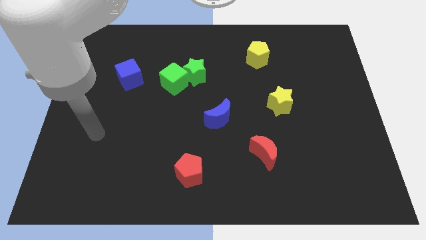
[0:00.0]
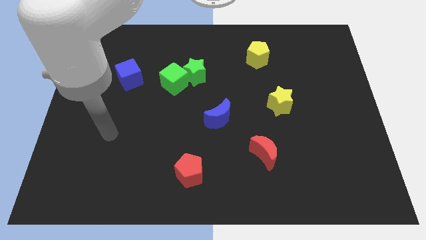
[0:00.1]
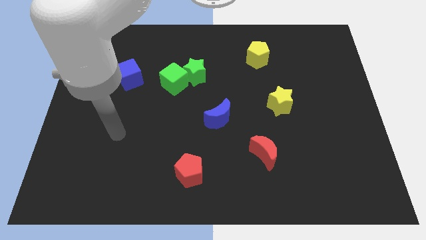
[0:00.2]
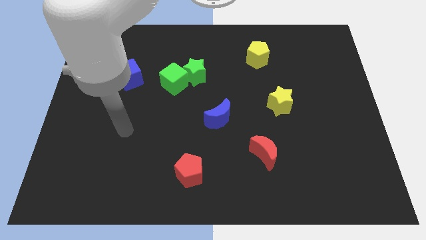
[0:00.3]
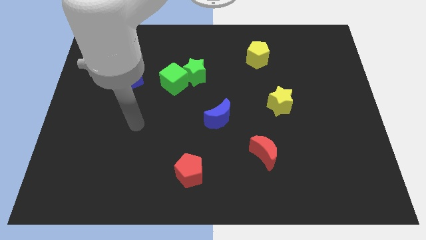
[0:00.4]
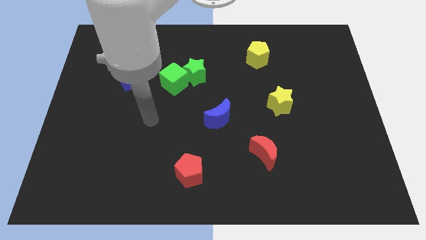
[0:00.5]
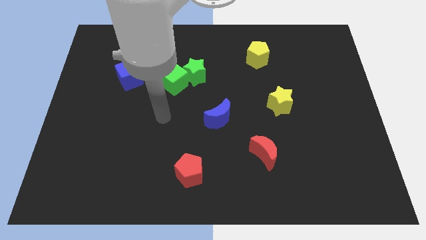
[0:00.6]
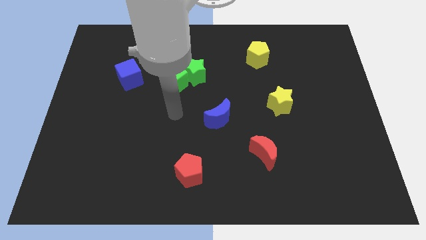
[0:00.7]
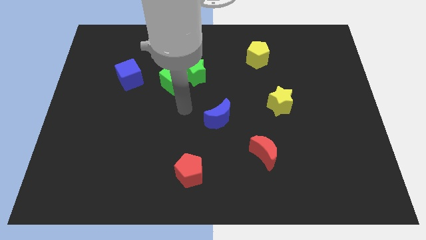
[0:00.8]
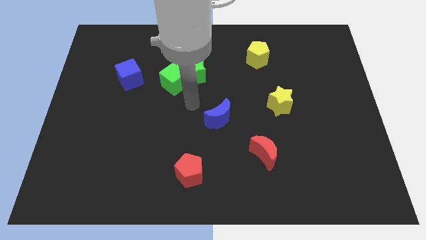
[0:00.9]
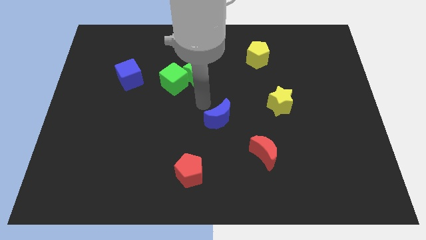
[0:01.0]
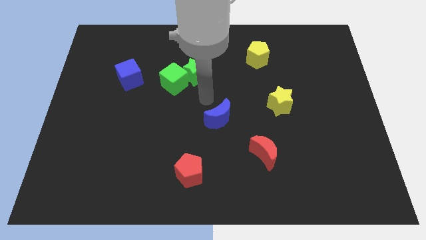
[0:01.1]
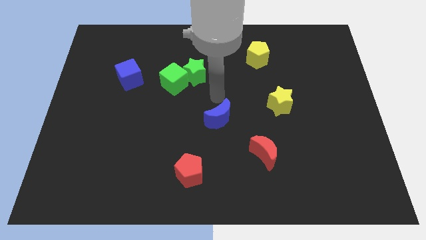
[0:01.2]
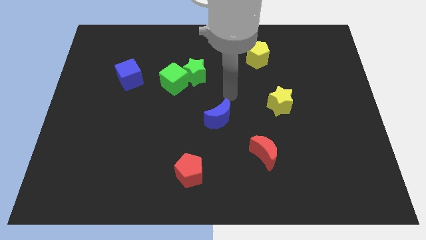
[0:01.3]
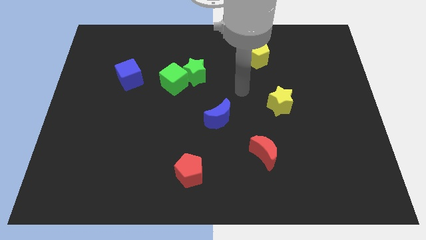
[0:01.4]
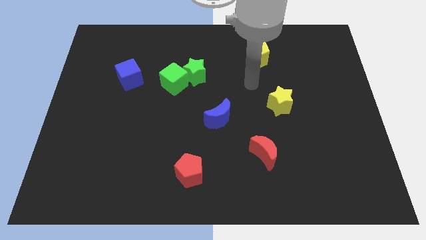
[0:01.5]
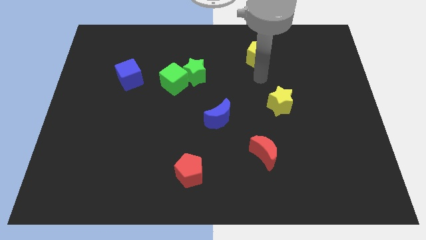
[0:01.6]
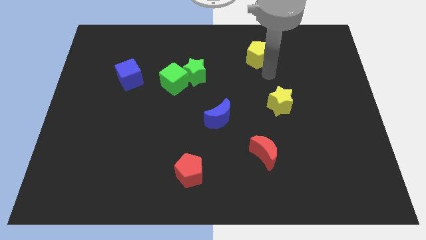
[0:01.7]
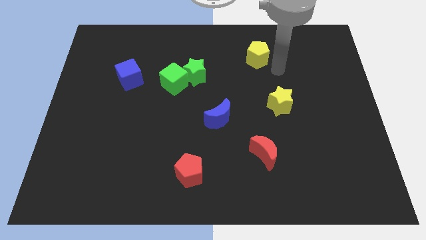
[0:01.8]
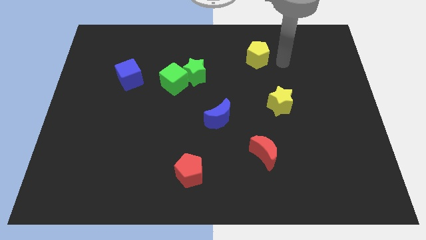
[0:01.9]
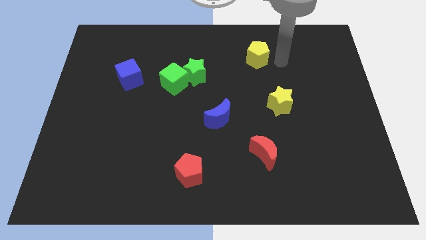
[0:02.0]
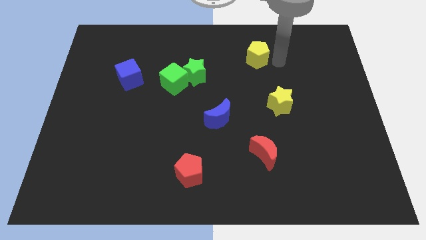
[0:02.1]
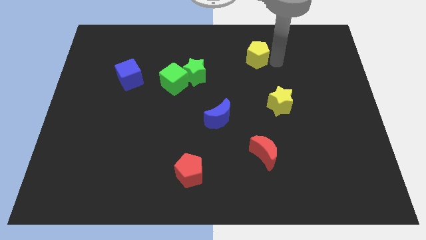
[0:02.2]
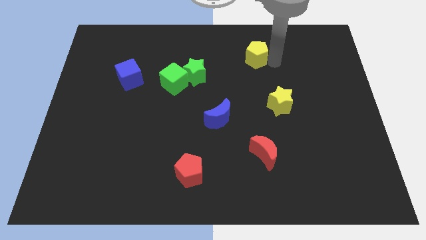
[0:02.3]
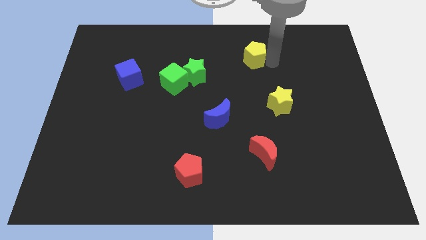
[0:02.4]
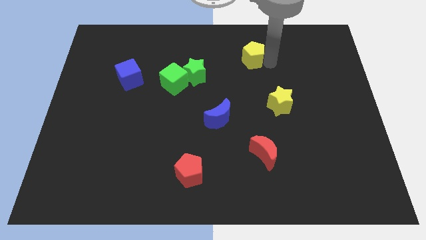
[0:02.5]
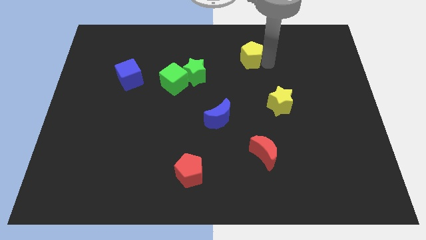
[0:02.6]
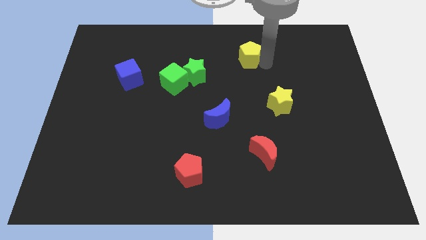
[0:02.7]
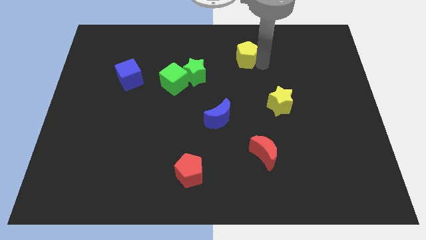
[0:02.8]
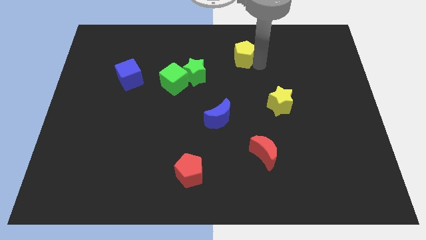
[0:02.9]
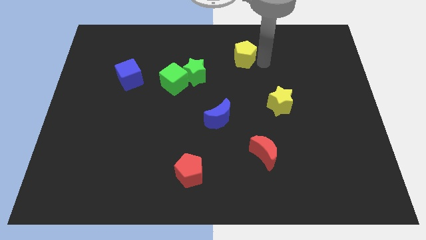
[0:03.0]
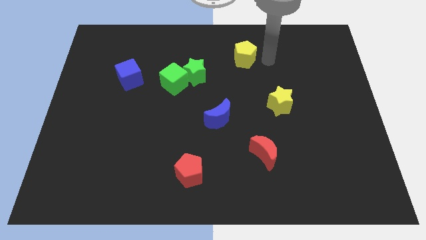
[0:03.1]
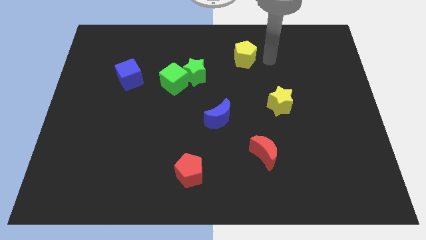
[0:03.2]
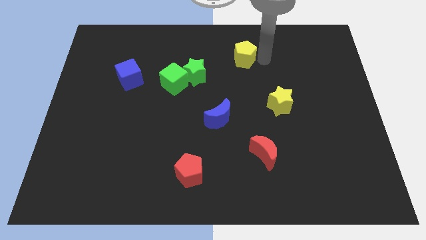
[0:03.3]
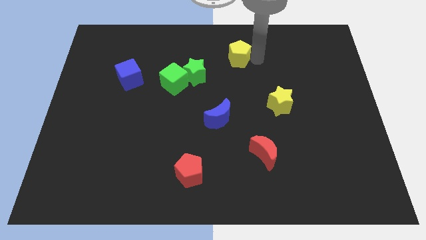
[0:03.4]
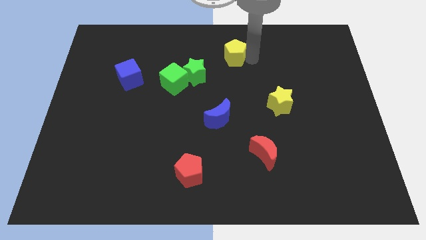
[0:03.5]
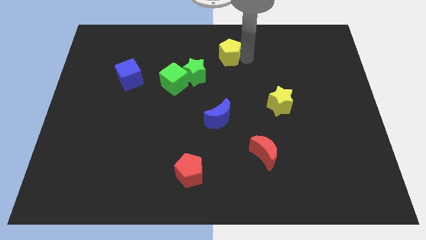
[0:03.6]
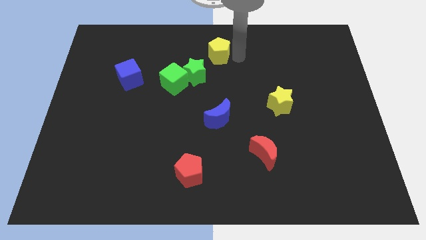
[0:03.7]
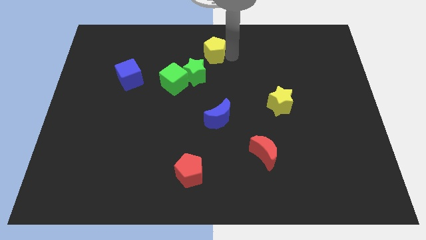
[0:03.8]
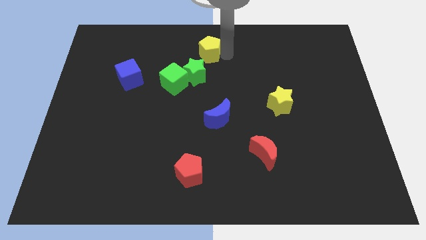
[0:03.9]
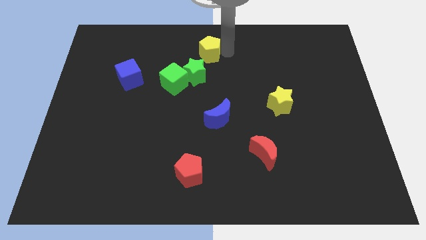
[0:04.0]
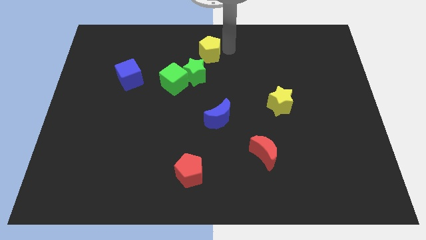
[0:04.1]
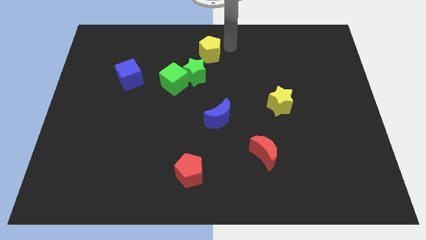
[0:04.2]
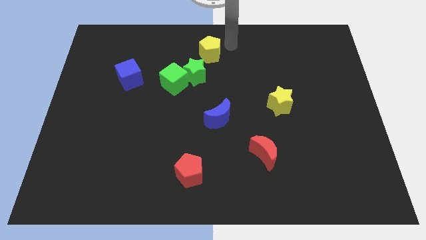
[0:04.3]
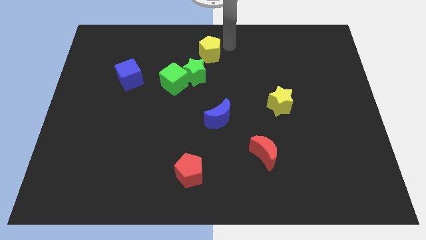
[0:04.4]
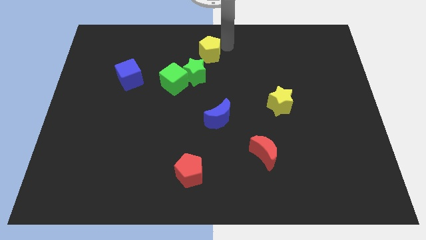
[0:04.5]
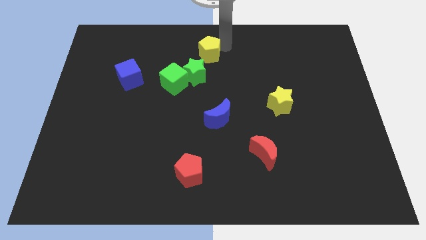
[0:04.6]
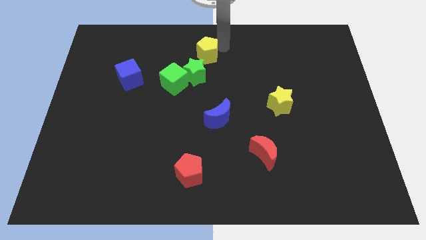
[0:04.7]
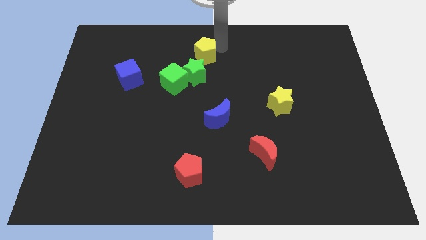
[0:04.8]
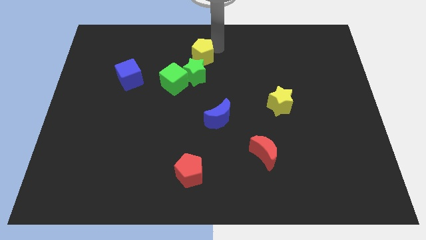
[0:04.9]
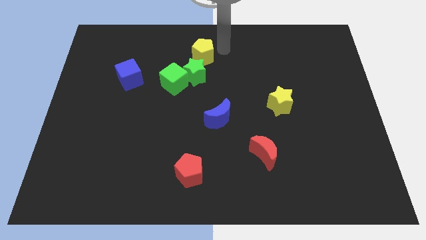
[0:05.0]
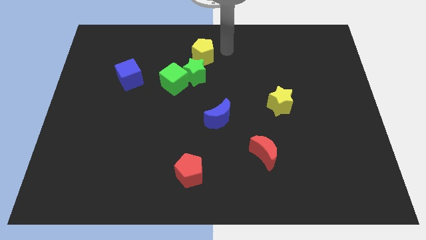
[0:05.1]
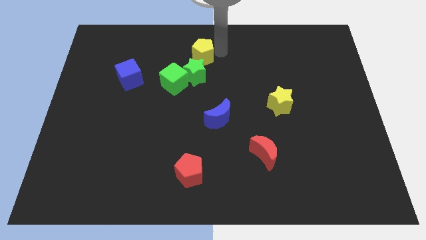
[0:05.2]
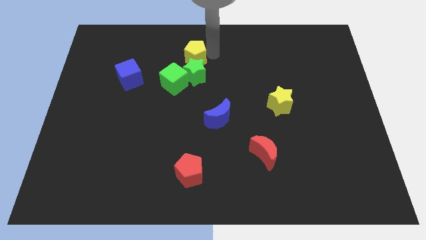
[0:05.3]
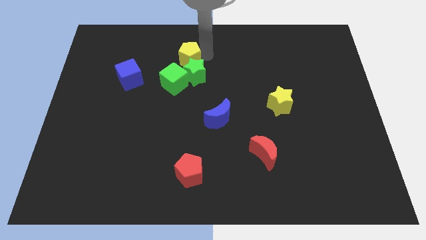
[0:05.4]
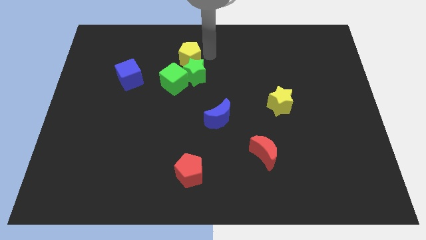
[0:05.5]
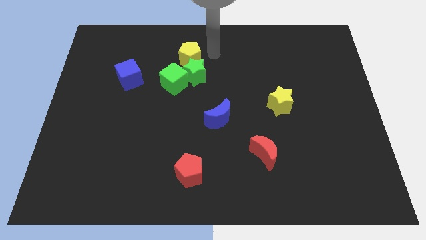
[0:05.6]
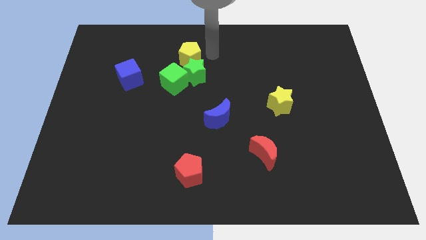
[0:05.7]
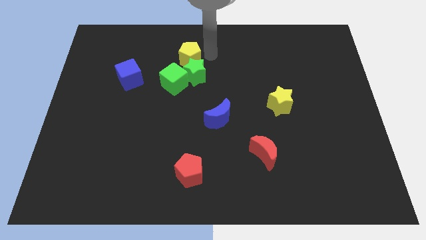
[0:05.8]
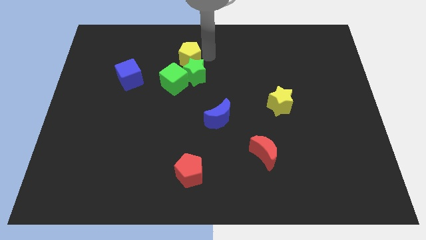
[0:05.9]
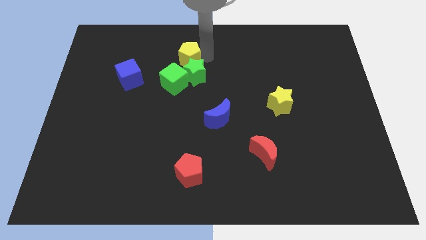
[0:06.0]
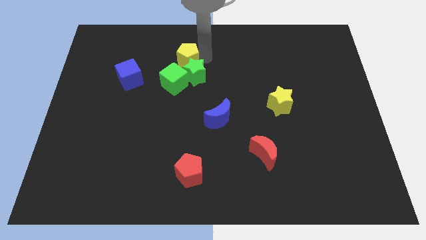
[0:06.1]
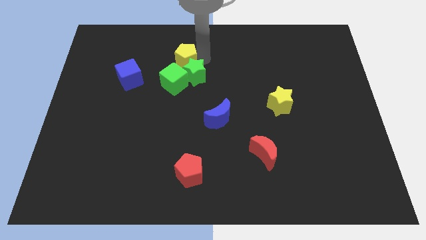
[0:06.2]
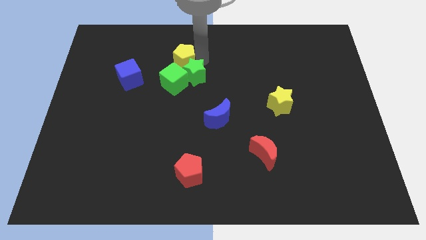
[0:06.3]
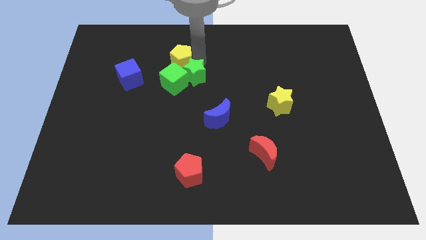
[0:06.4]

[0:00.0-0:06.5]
push the yellow pentagon just left of the green star

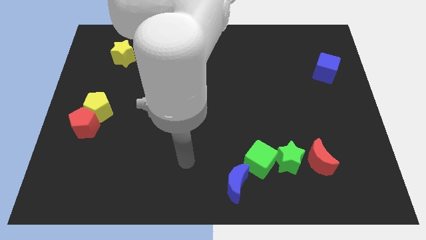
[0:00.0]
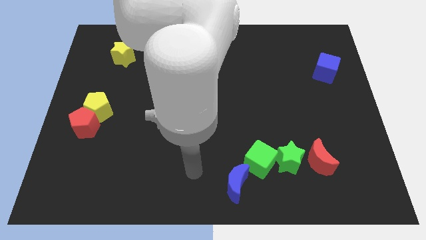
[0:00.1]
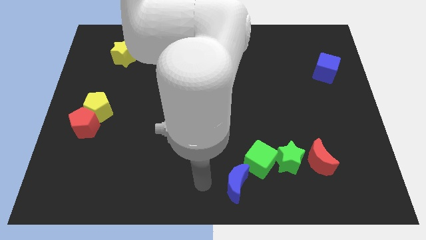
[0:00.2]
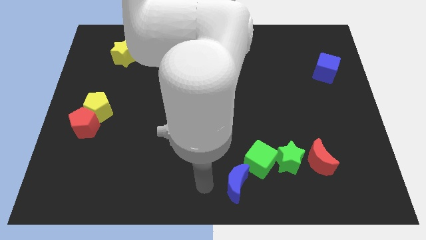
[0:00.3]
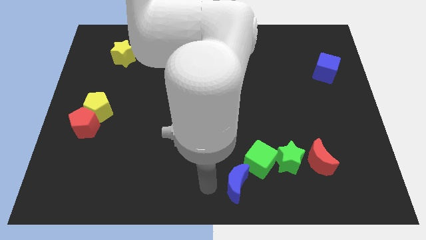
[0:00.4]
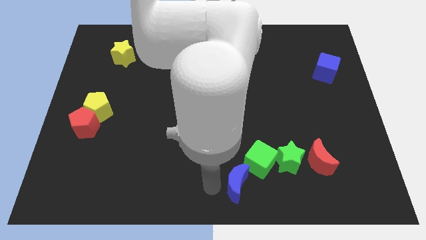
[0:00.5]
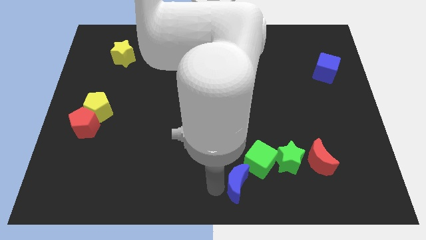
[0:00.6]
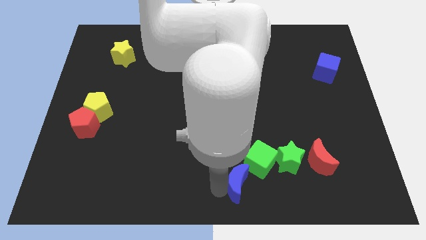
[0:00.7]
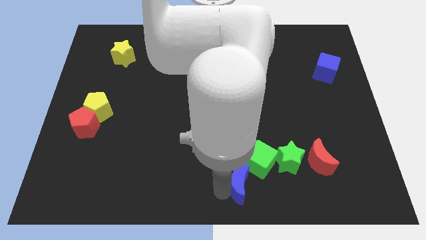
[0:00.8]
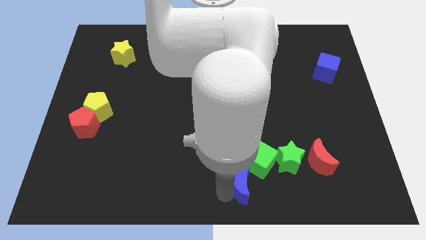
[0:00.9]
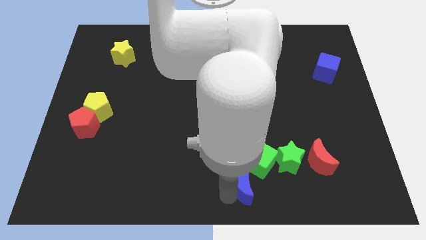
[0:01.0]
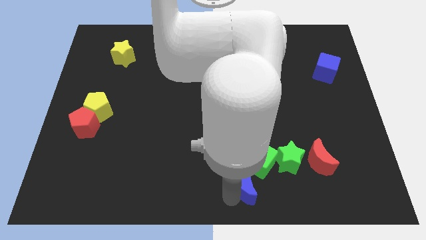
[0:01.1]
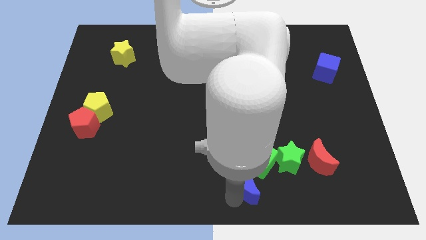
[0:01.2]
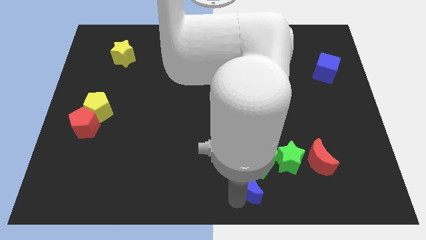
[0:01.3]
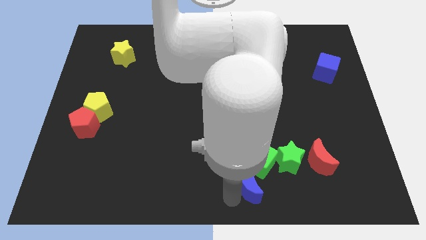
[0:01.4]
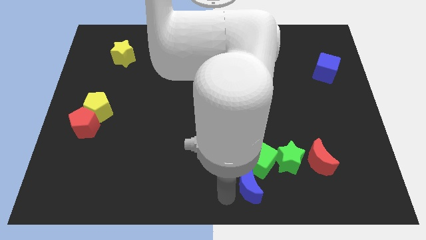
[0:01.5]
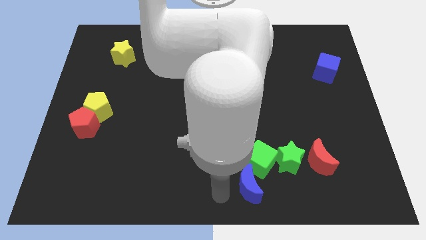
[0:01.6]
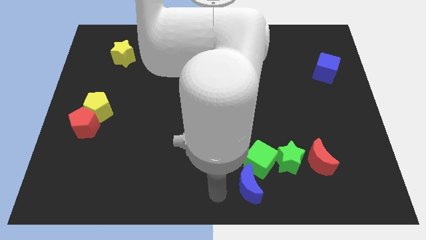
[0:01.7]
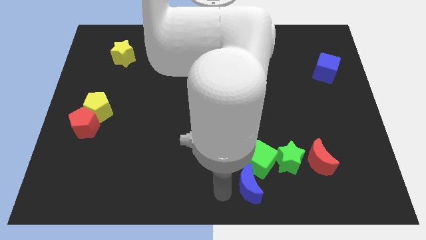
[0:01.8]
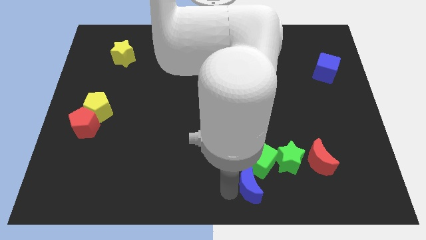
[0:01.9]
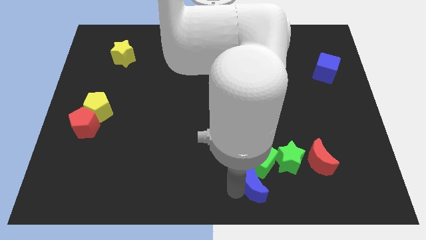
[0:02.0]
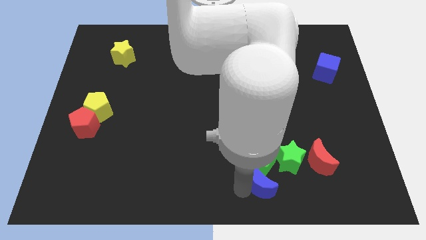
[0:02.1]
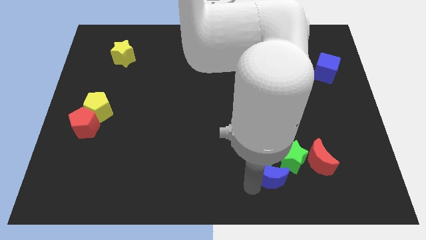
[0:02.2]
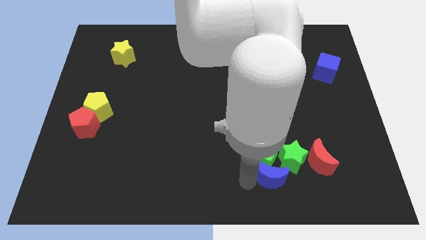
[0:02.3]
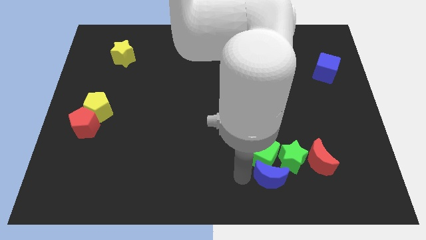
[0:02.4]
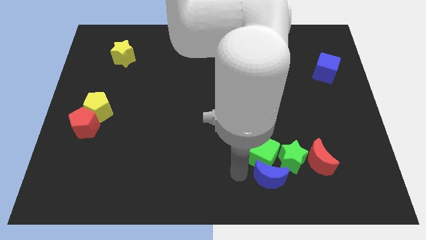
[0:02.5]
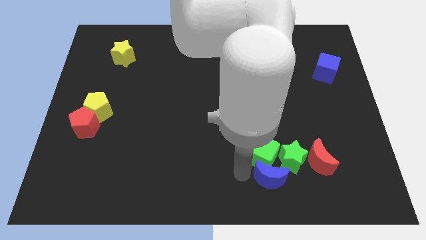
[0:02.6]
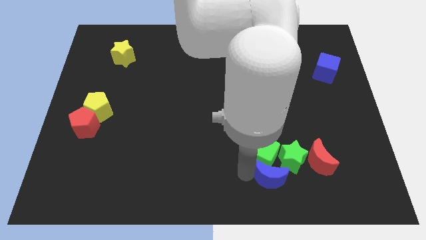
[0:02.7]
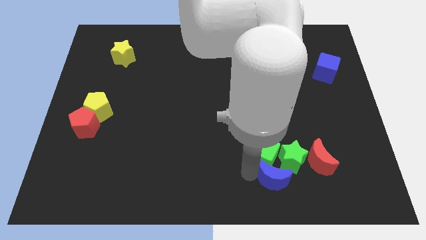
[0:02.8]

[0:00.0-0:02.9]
put the blue moon diagonally down and to the left of the red moon
